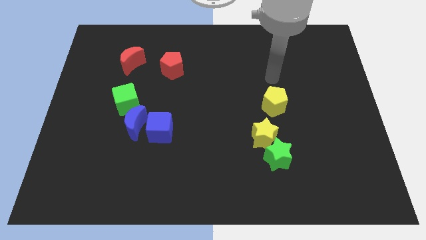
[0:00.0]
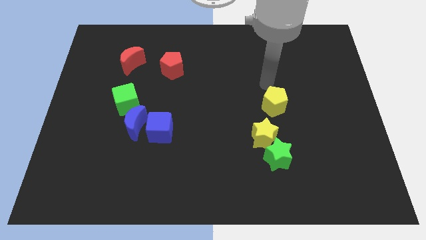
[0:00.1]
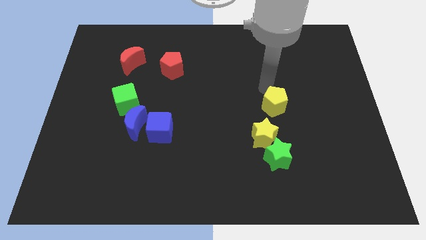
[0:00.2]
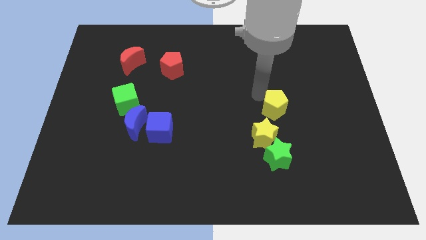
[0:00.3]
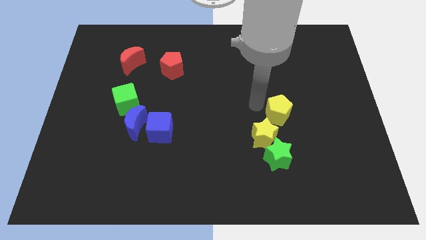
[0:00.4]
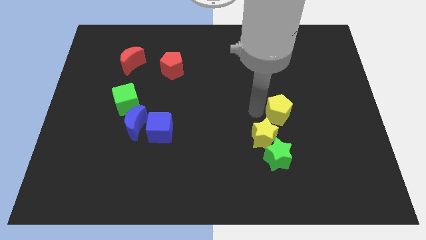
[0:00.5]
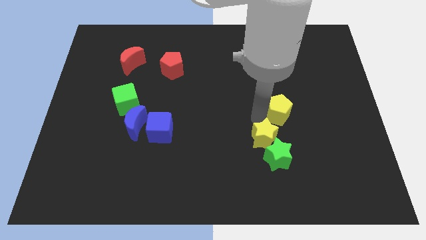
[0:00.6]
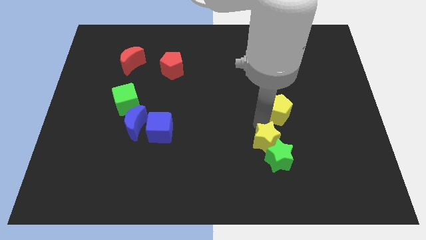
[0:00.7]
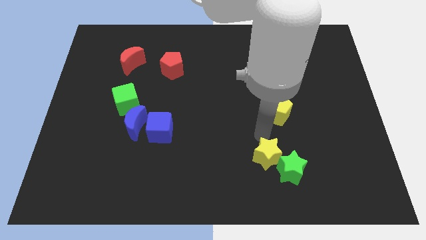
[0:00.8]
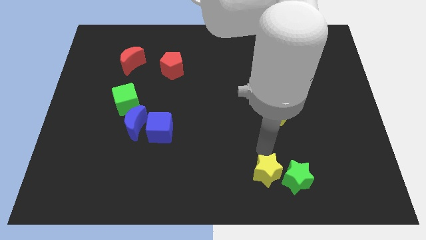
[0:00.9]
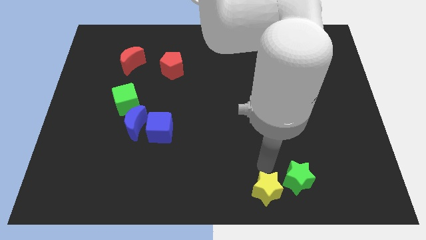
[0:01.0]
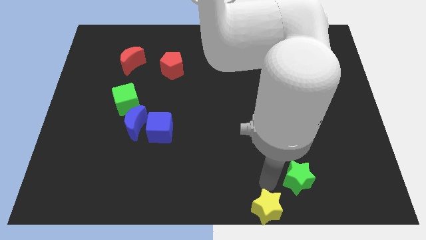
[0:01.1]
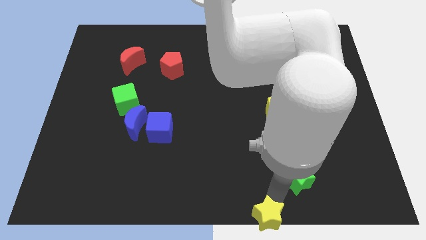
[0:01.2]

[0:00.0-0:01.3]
separate the green star from the yellow star

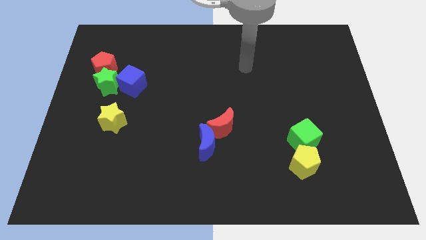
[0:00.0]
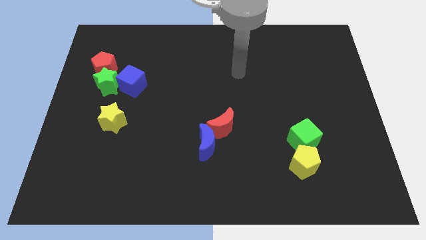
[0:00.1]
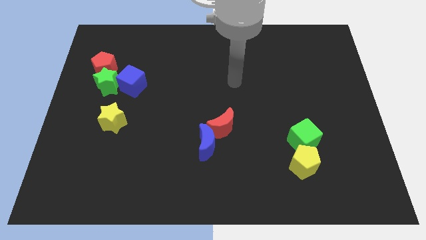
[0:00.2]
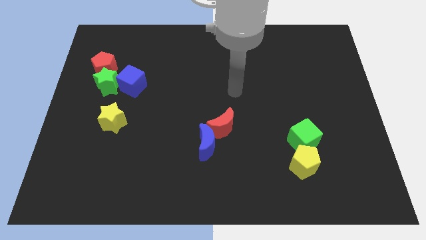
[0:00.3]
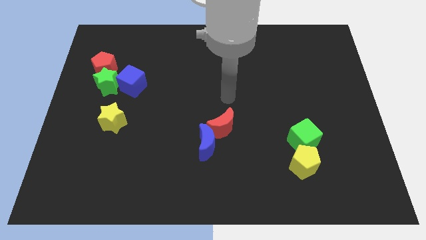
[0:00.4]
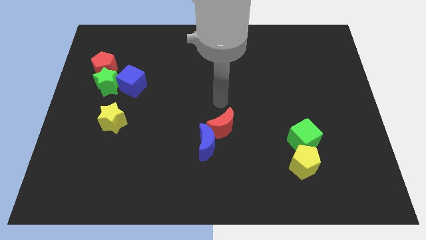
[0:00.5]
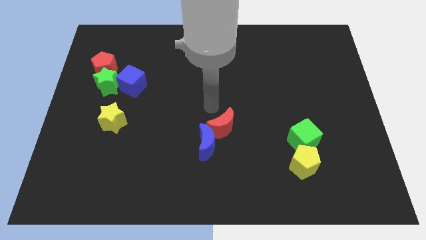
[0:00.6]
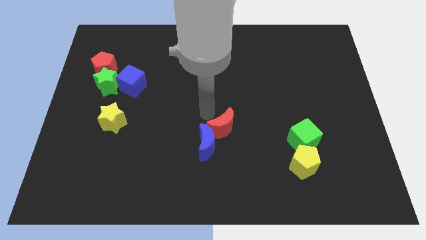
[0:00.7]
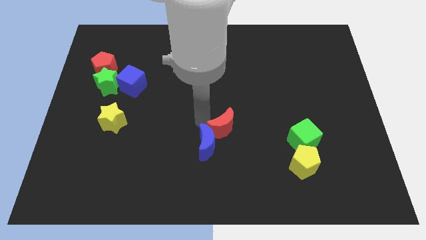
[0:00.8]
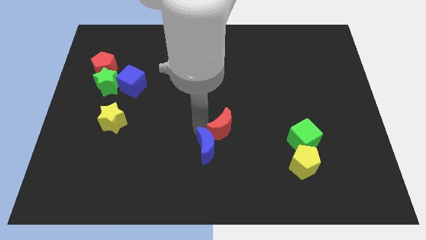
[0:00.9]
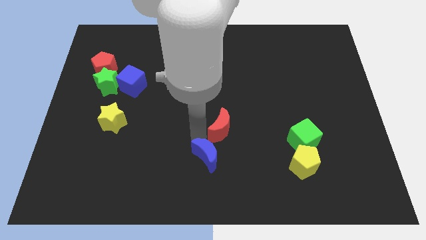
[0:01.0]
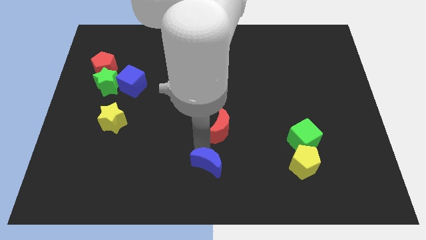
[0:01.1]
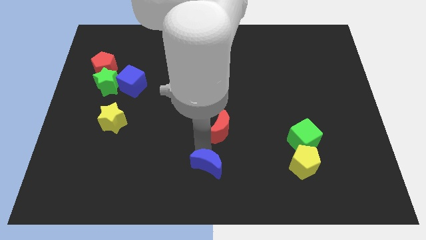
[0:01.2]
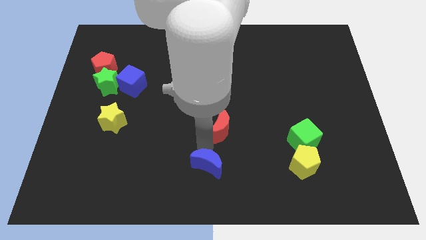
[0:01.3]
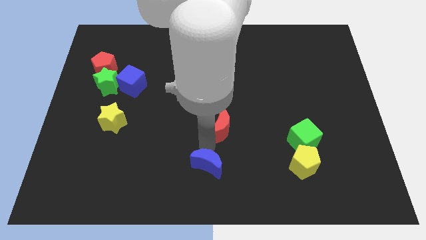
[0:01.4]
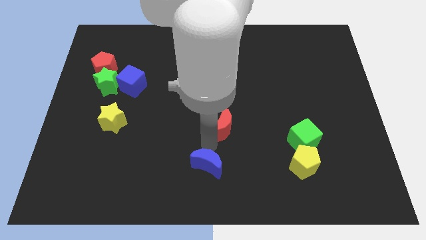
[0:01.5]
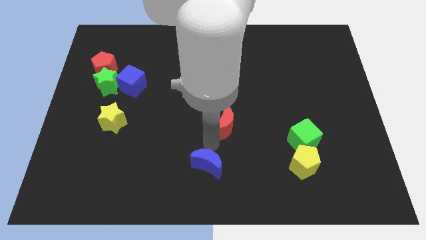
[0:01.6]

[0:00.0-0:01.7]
separate the red moon from the blue moon

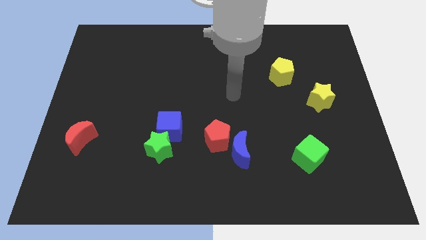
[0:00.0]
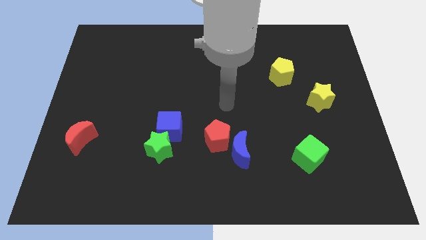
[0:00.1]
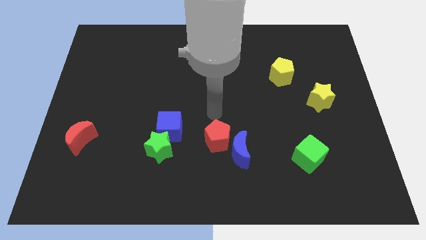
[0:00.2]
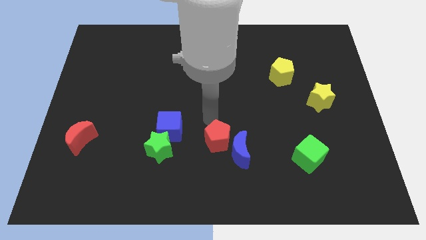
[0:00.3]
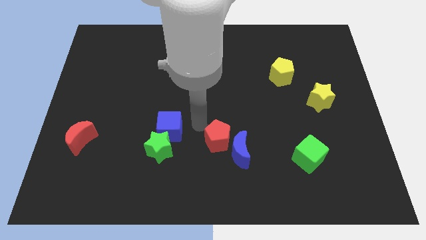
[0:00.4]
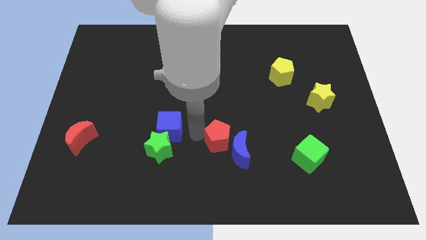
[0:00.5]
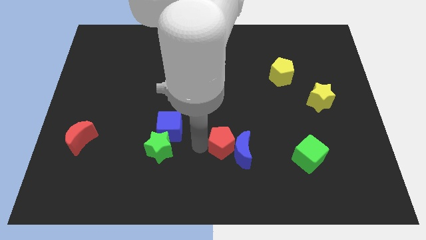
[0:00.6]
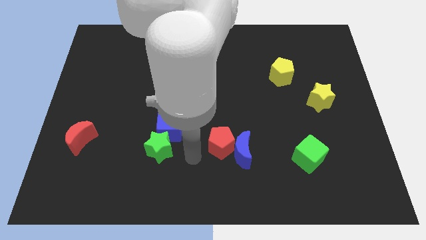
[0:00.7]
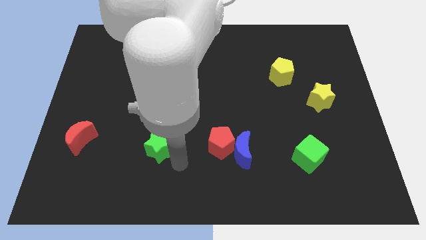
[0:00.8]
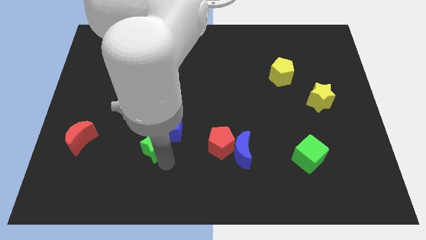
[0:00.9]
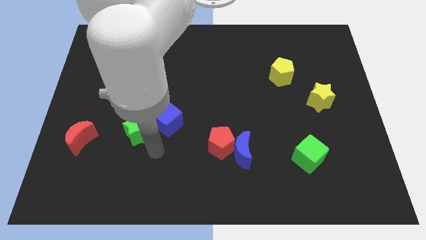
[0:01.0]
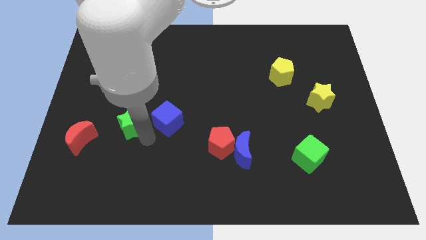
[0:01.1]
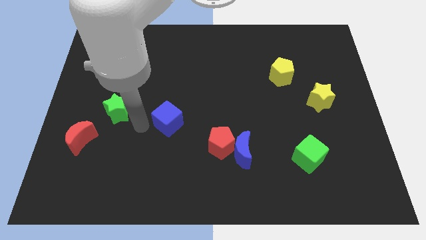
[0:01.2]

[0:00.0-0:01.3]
move the blue cube away from the green star

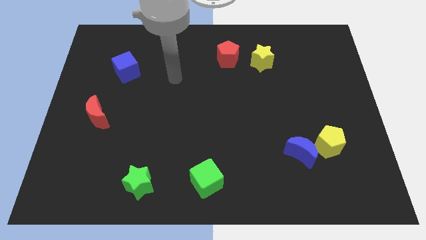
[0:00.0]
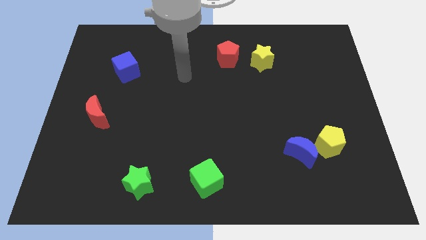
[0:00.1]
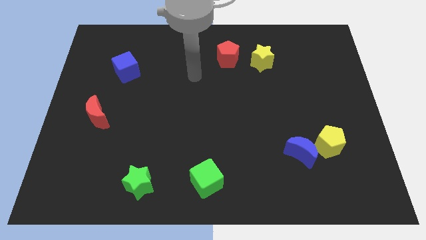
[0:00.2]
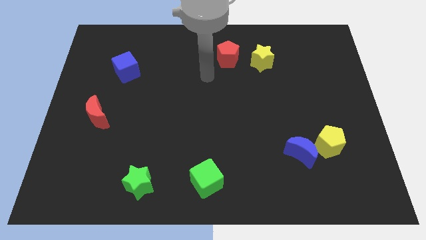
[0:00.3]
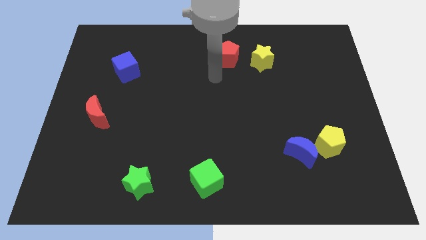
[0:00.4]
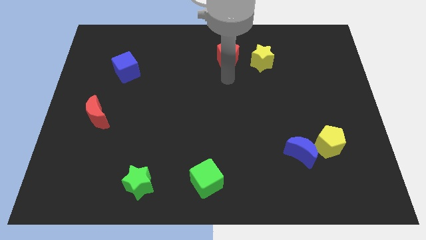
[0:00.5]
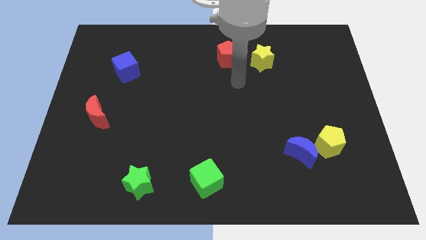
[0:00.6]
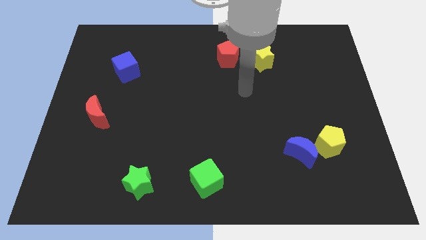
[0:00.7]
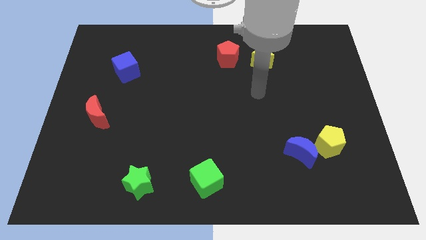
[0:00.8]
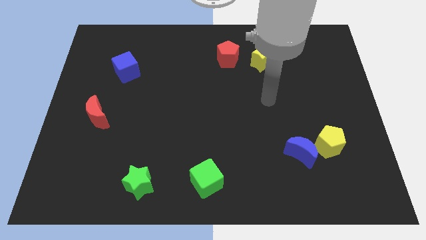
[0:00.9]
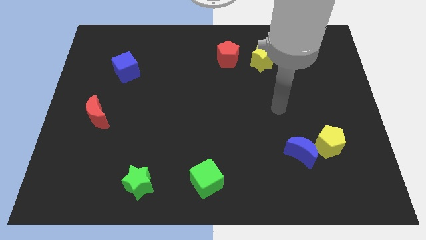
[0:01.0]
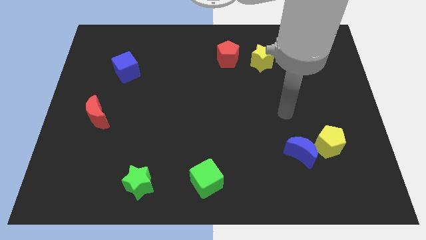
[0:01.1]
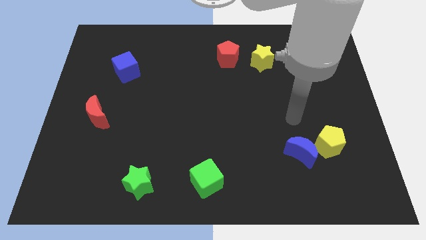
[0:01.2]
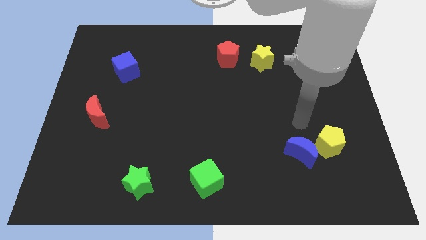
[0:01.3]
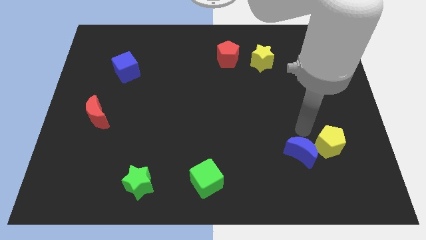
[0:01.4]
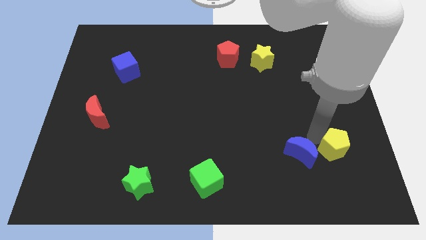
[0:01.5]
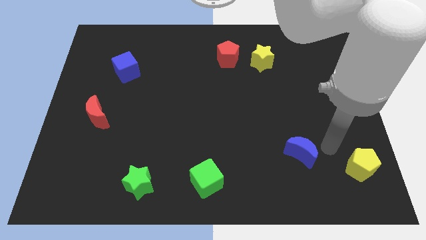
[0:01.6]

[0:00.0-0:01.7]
pull the blue moon apart from the yellow pentagon

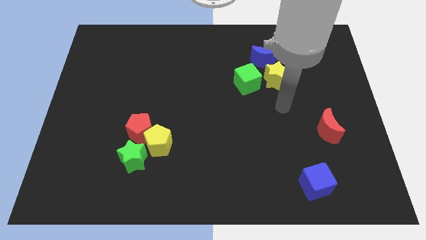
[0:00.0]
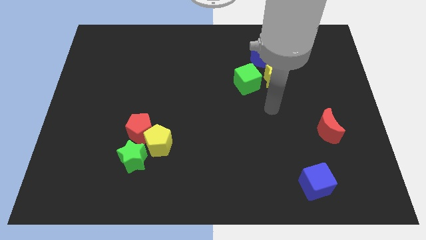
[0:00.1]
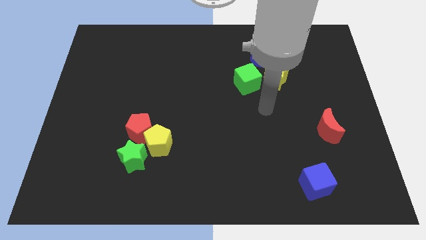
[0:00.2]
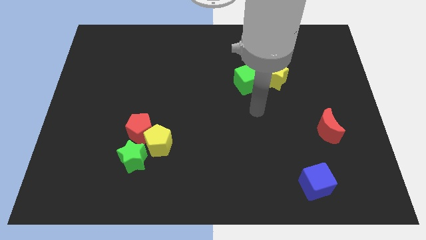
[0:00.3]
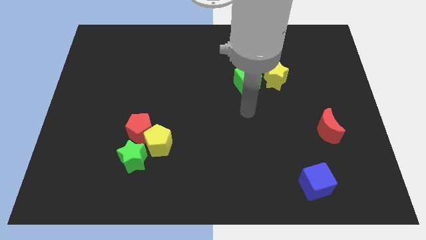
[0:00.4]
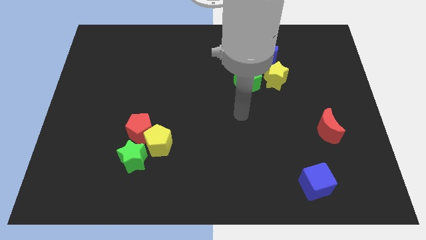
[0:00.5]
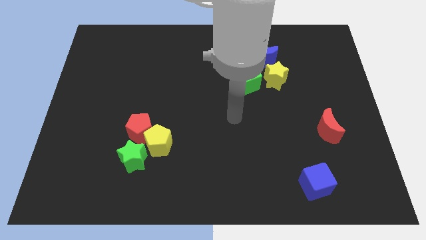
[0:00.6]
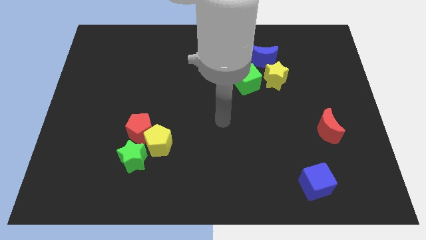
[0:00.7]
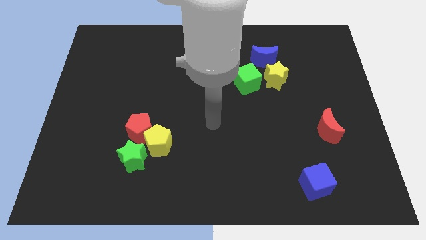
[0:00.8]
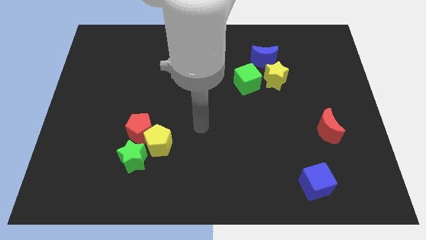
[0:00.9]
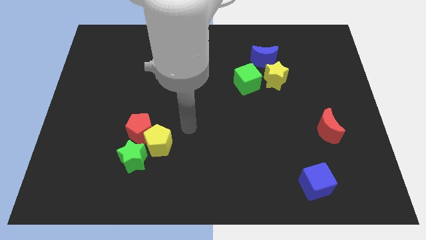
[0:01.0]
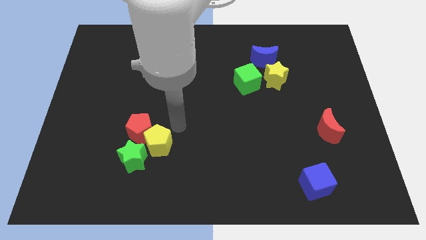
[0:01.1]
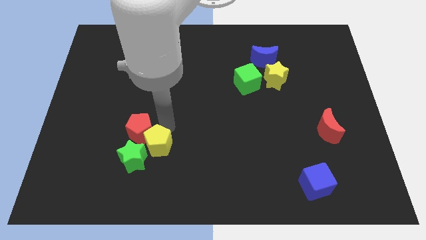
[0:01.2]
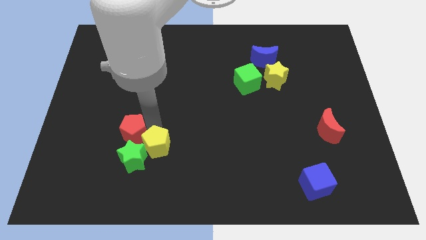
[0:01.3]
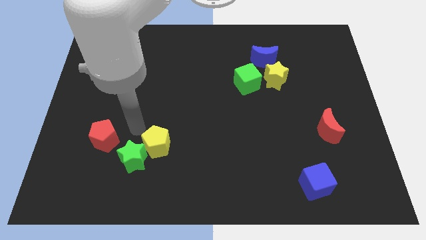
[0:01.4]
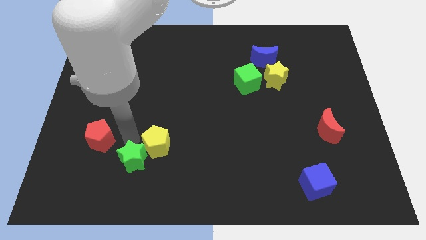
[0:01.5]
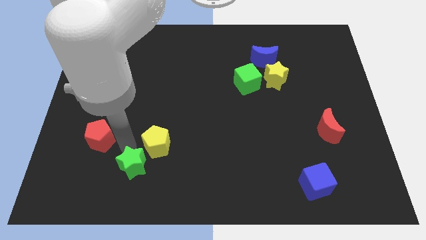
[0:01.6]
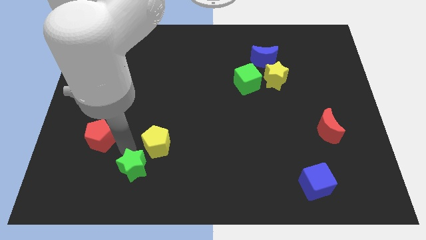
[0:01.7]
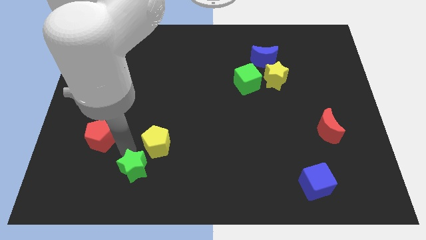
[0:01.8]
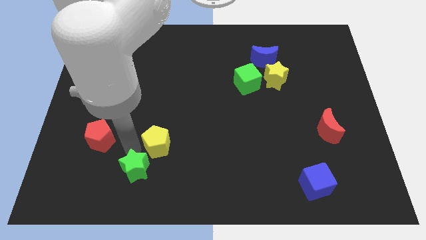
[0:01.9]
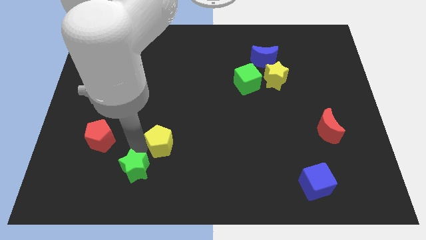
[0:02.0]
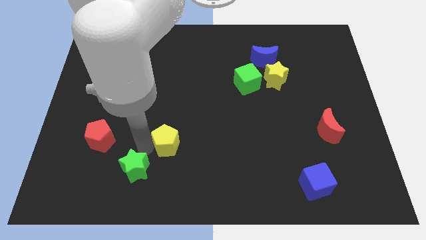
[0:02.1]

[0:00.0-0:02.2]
separate the yellow pentagon from the red pentagon and green star

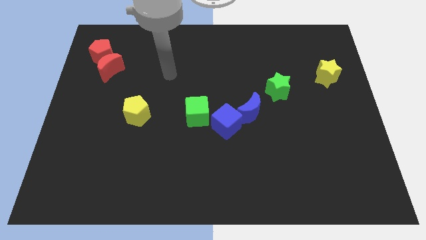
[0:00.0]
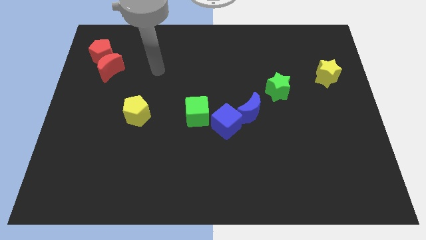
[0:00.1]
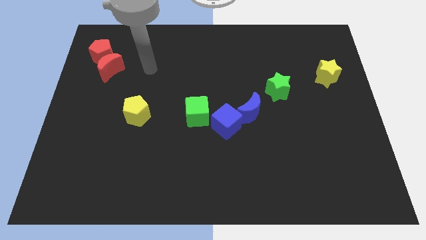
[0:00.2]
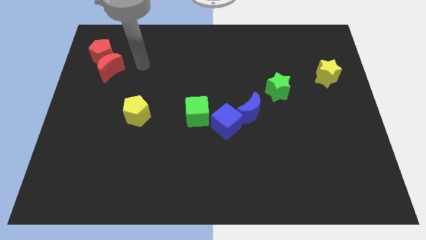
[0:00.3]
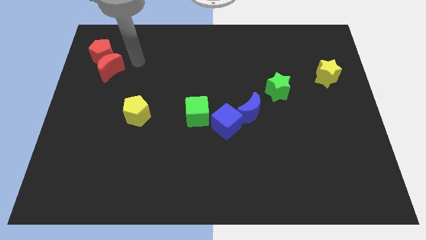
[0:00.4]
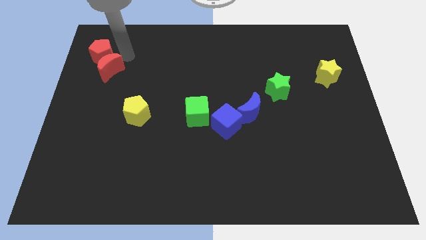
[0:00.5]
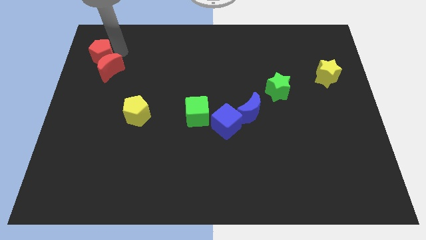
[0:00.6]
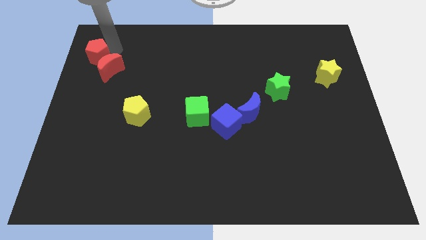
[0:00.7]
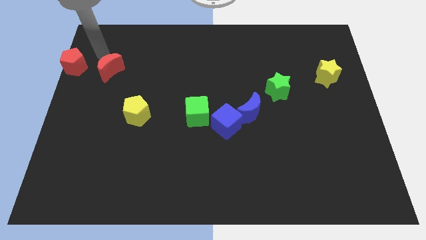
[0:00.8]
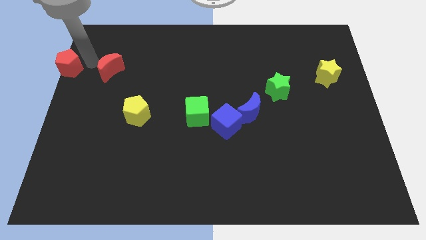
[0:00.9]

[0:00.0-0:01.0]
pull the red moon apart from the red pentagon
